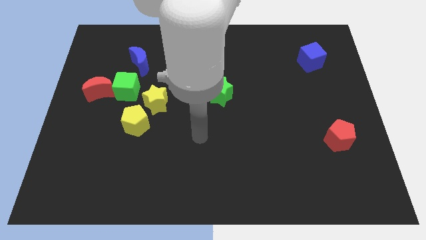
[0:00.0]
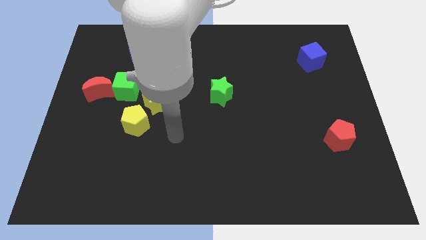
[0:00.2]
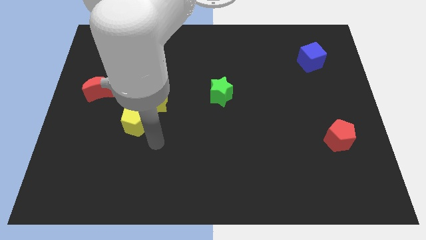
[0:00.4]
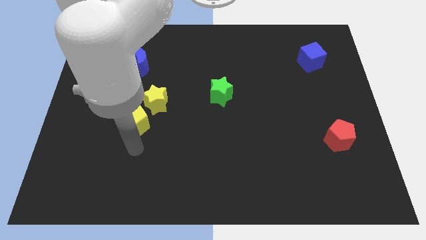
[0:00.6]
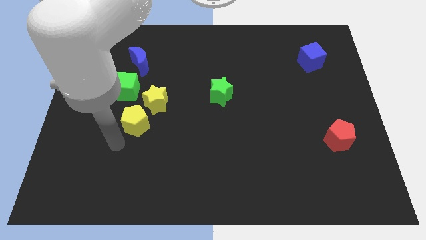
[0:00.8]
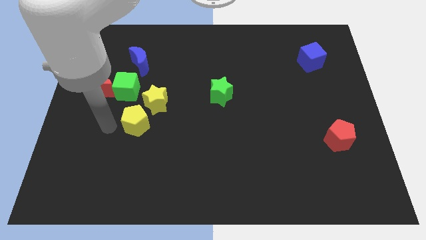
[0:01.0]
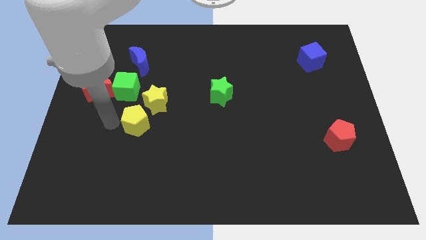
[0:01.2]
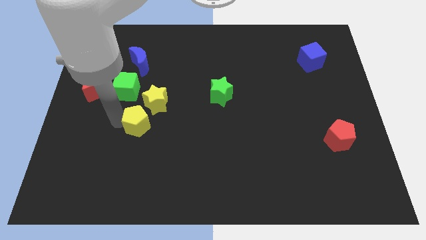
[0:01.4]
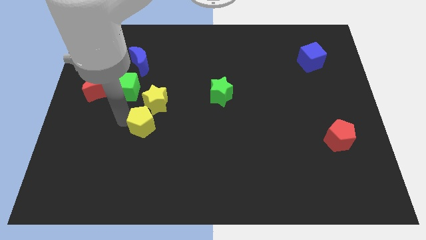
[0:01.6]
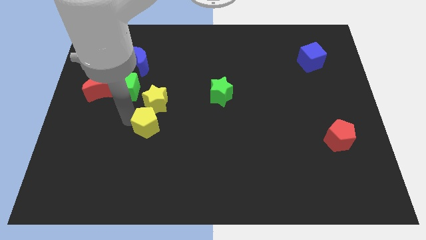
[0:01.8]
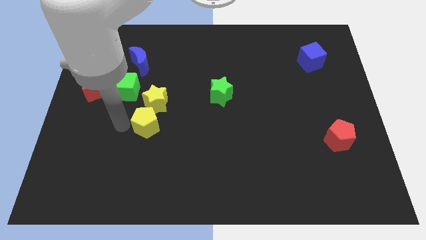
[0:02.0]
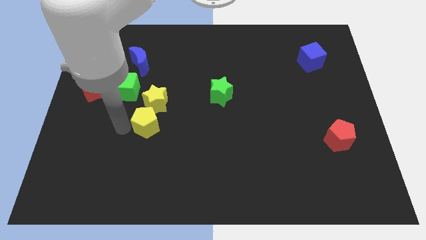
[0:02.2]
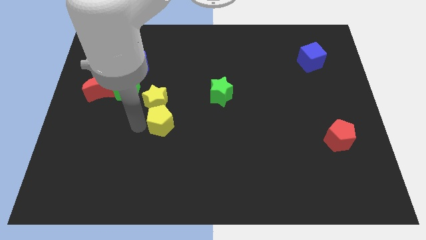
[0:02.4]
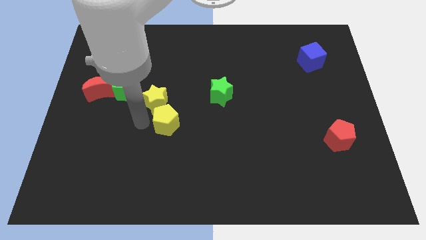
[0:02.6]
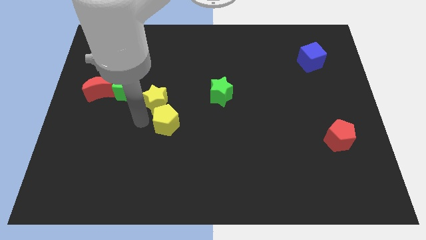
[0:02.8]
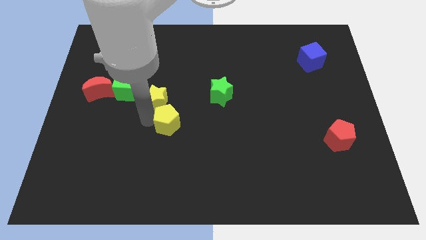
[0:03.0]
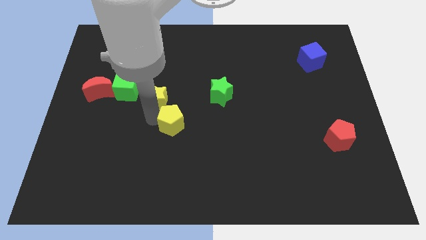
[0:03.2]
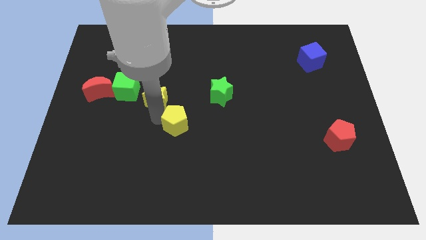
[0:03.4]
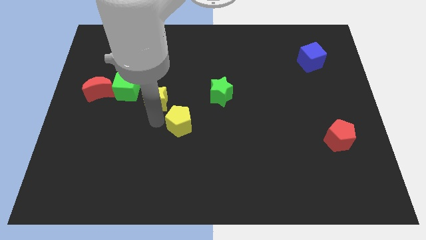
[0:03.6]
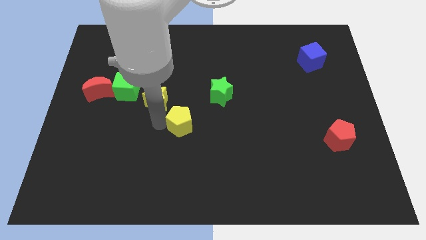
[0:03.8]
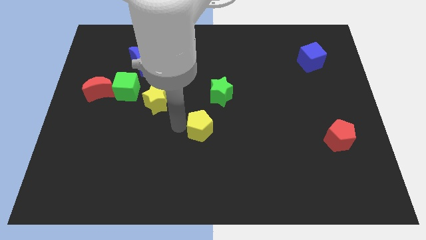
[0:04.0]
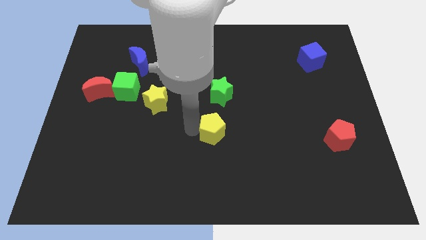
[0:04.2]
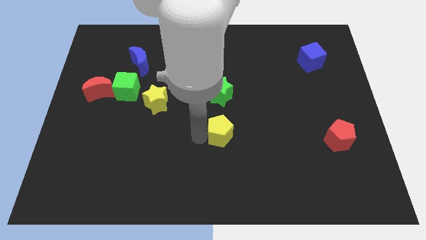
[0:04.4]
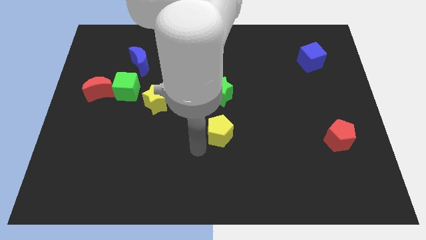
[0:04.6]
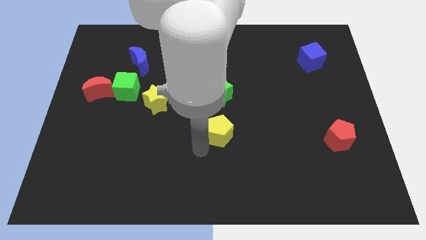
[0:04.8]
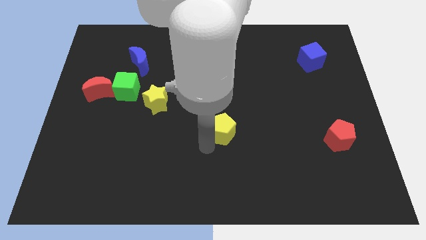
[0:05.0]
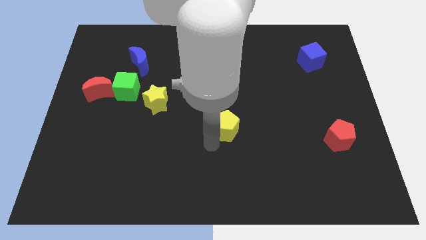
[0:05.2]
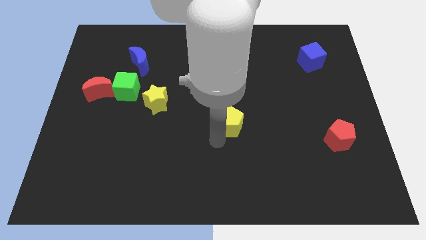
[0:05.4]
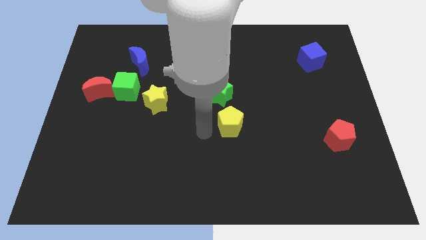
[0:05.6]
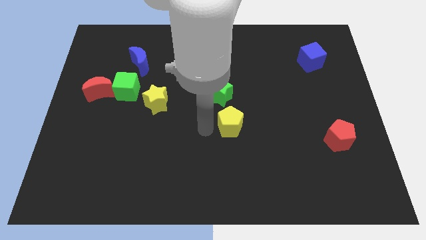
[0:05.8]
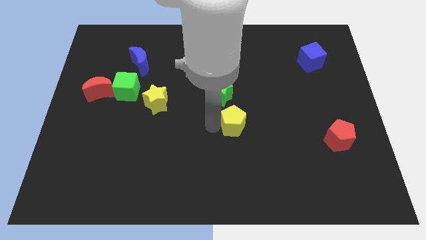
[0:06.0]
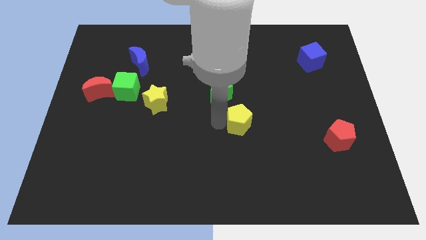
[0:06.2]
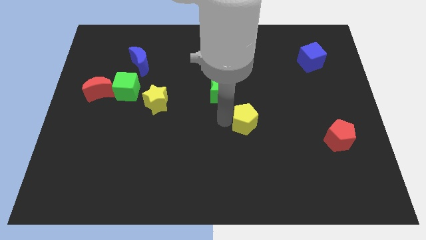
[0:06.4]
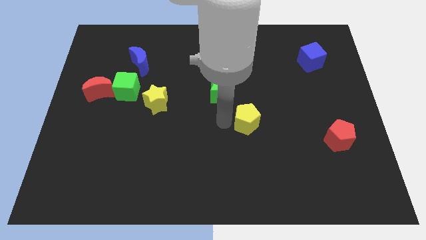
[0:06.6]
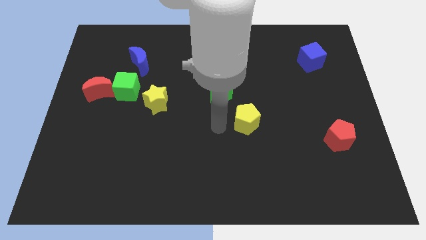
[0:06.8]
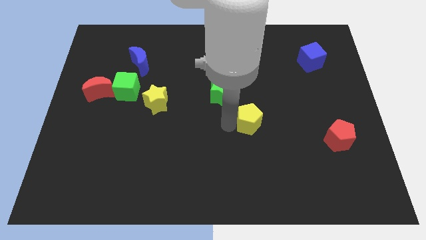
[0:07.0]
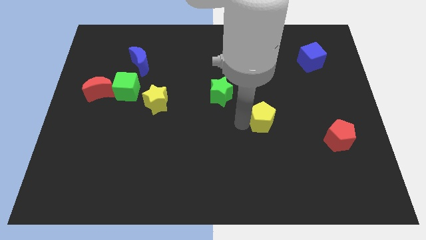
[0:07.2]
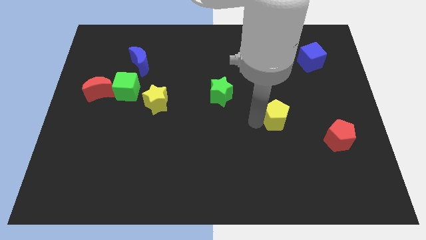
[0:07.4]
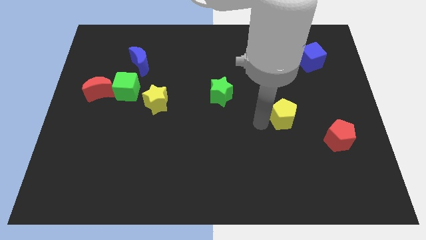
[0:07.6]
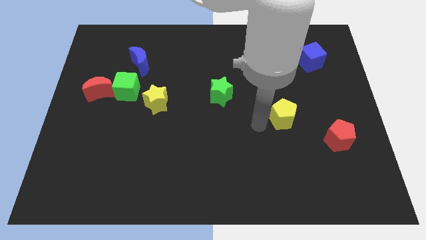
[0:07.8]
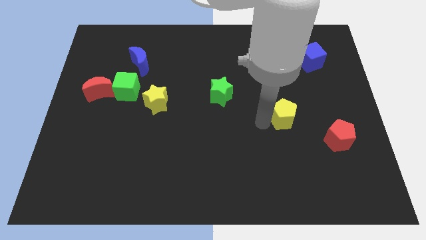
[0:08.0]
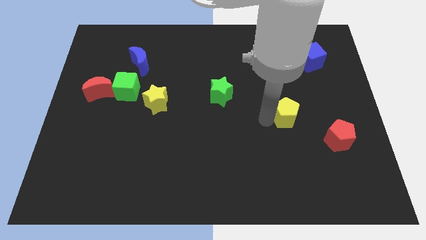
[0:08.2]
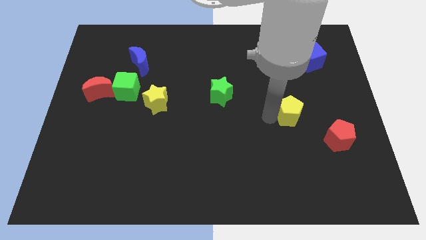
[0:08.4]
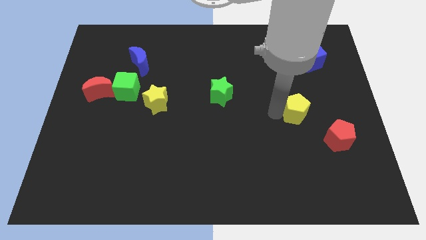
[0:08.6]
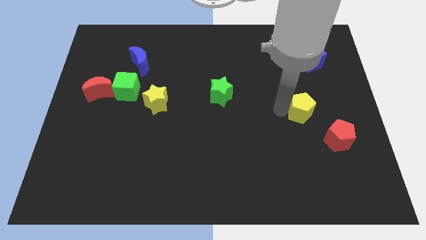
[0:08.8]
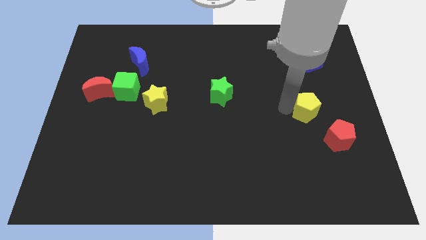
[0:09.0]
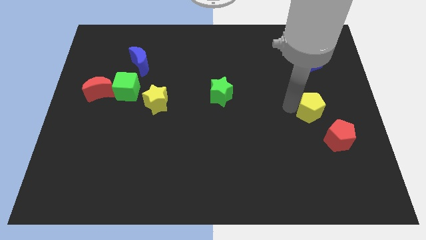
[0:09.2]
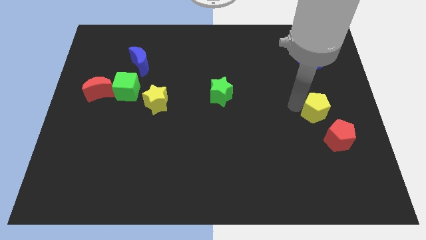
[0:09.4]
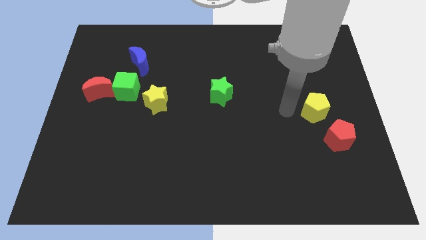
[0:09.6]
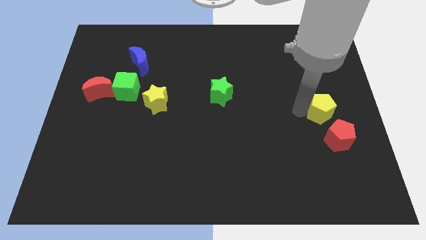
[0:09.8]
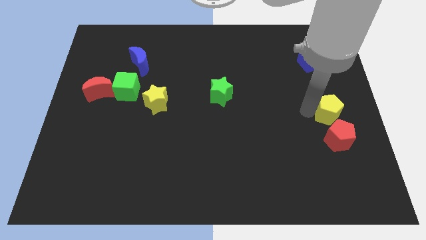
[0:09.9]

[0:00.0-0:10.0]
push the yellow pentagon to the right side of the board

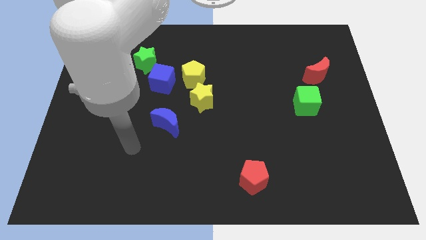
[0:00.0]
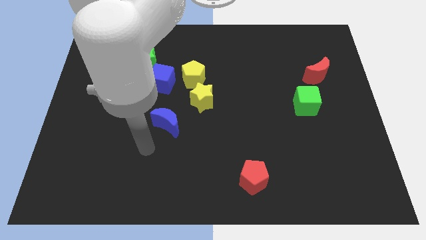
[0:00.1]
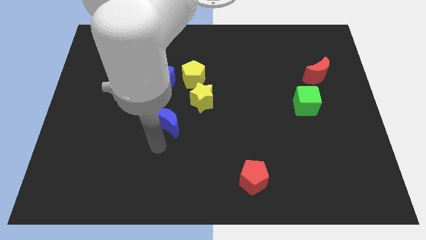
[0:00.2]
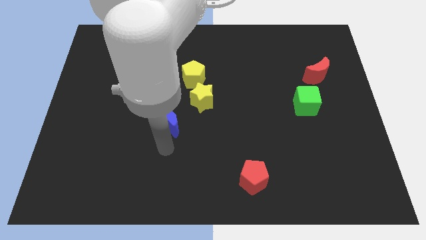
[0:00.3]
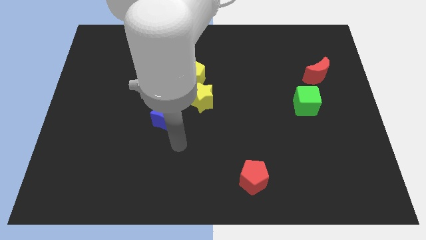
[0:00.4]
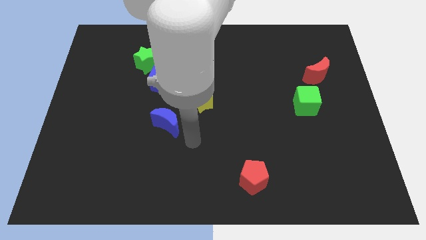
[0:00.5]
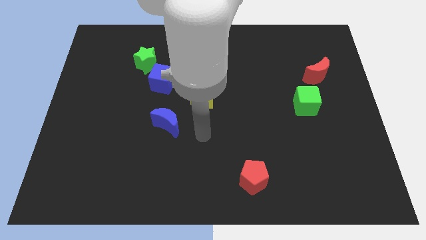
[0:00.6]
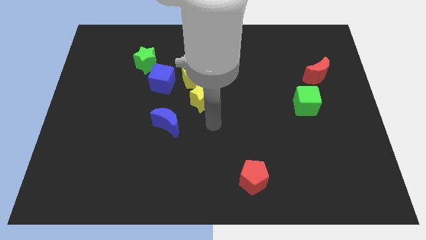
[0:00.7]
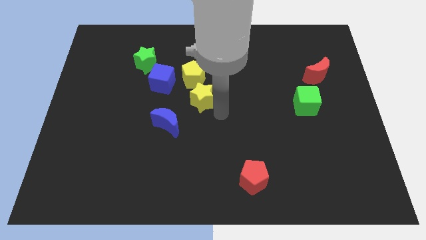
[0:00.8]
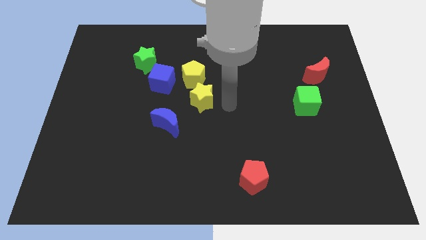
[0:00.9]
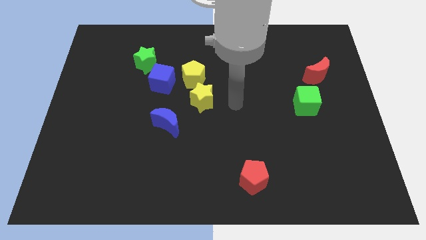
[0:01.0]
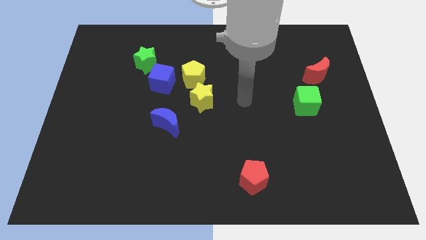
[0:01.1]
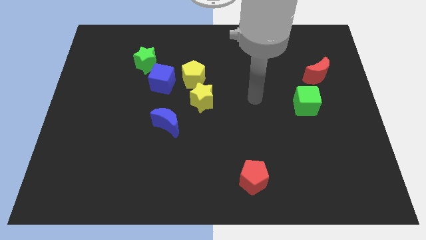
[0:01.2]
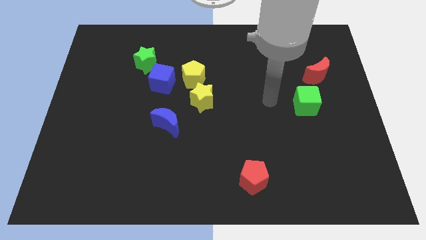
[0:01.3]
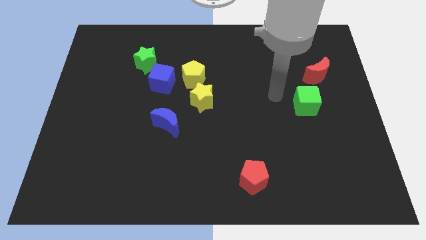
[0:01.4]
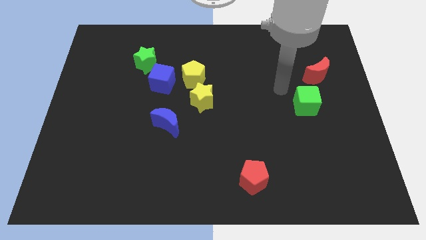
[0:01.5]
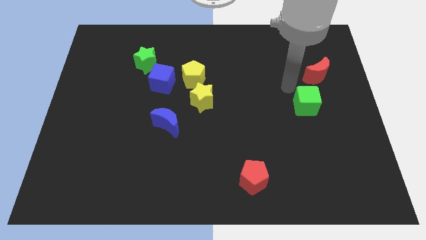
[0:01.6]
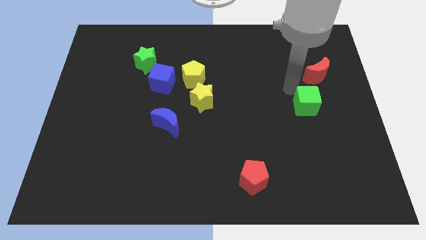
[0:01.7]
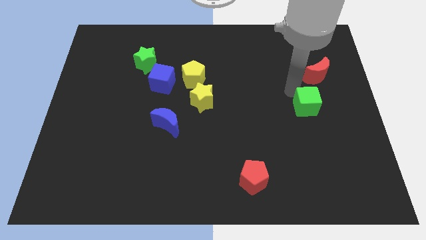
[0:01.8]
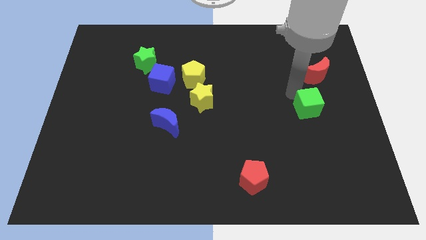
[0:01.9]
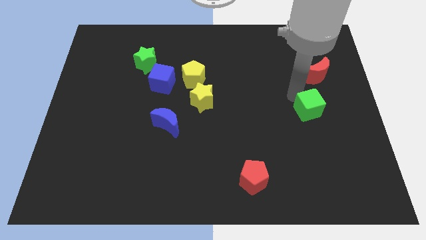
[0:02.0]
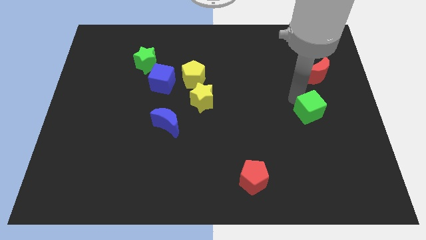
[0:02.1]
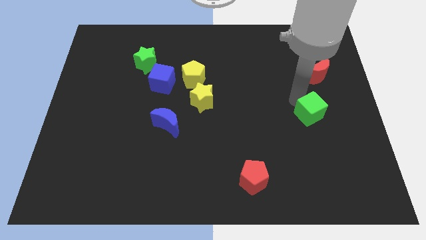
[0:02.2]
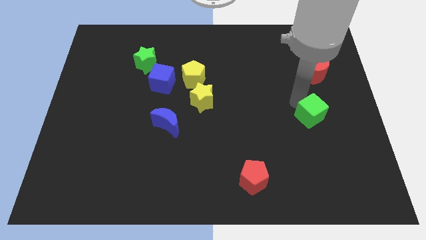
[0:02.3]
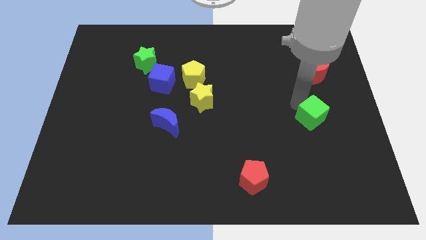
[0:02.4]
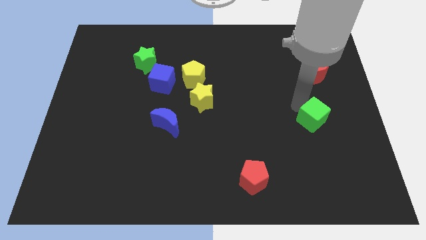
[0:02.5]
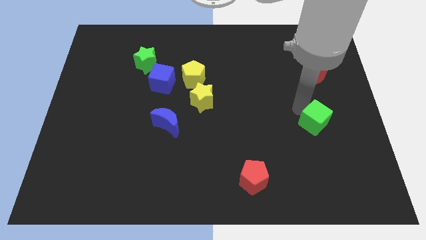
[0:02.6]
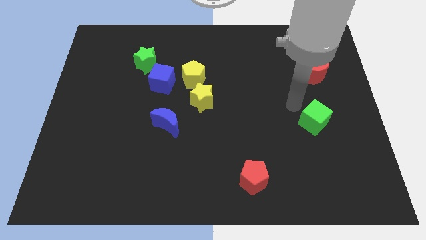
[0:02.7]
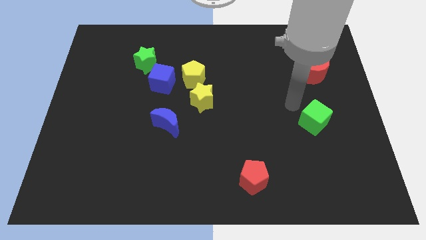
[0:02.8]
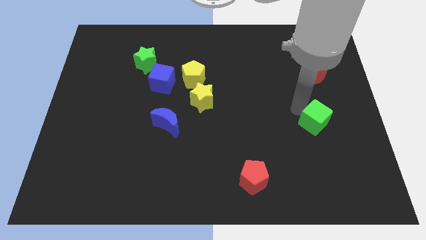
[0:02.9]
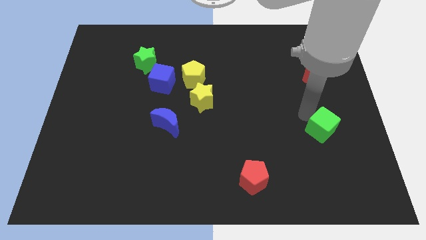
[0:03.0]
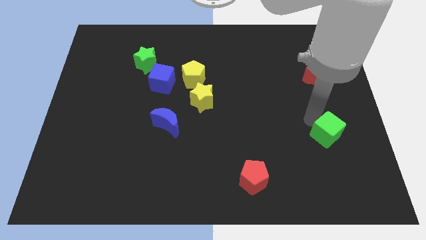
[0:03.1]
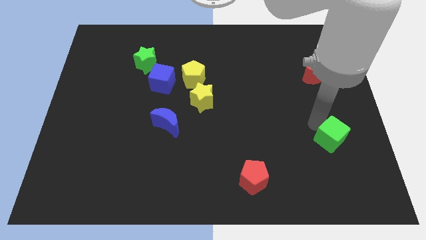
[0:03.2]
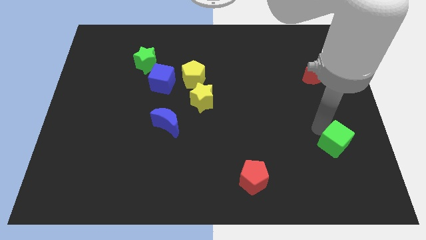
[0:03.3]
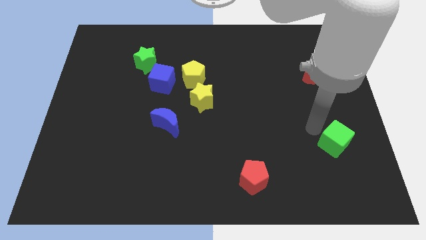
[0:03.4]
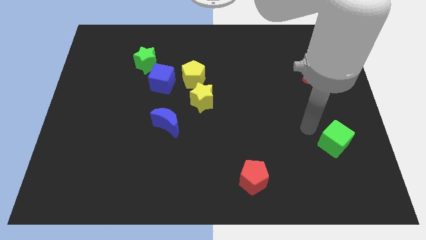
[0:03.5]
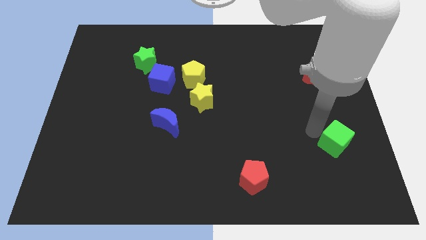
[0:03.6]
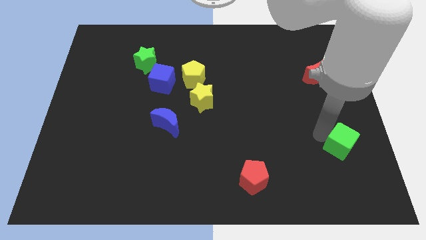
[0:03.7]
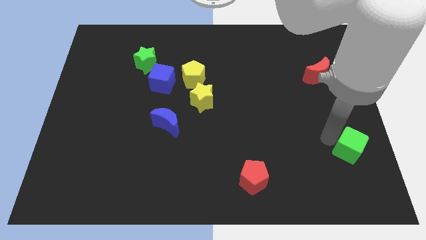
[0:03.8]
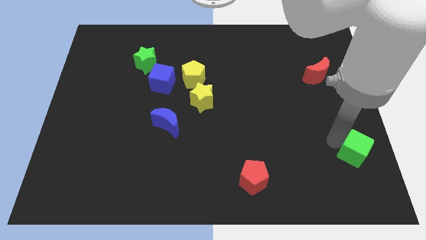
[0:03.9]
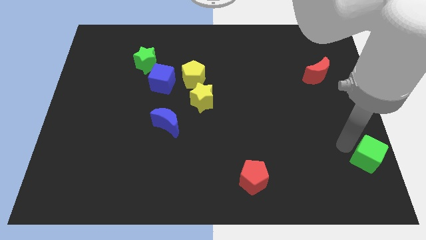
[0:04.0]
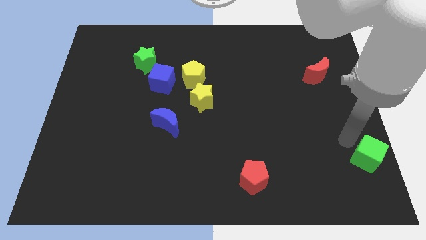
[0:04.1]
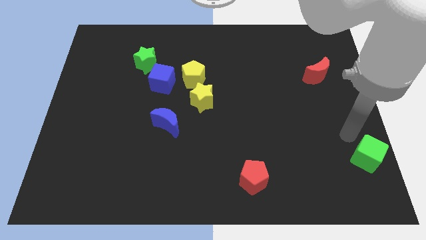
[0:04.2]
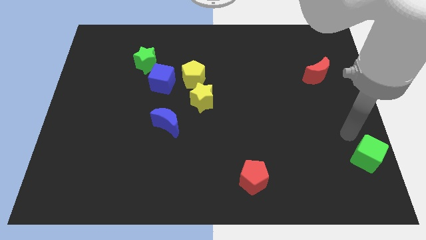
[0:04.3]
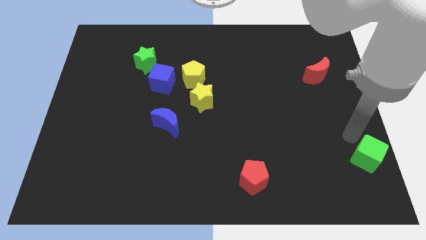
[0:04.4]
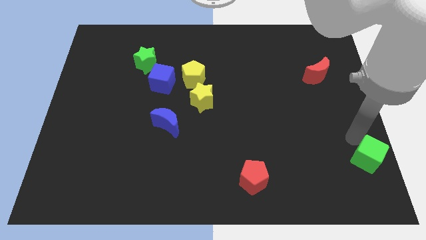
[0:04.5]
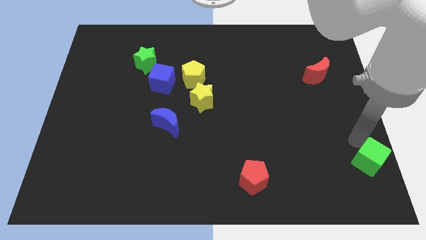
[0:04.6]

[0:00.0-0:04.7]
push the green cube to the bottom right of the board
